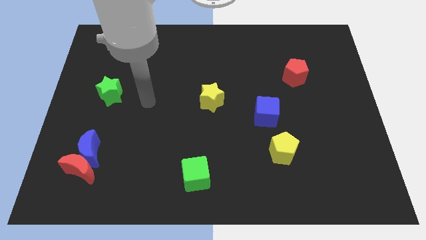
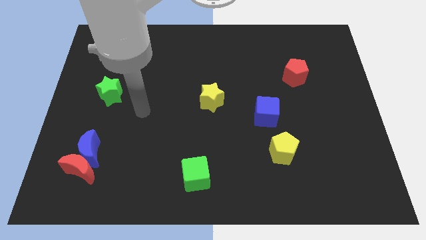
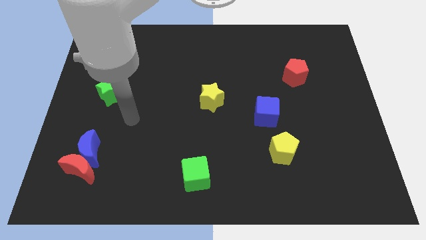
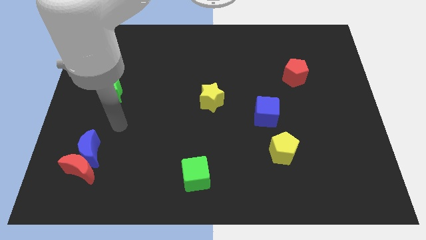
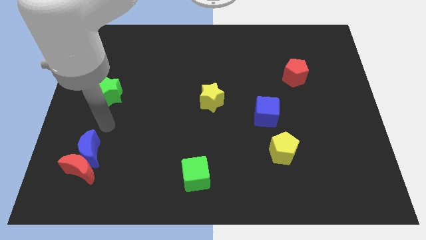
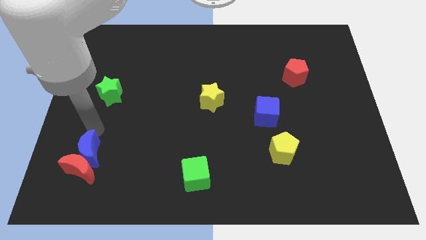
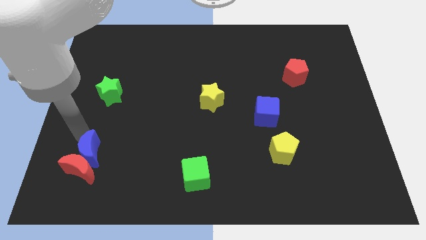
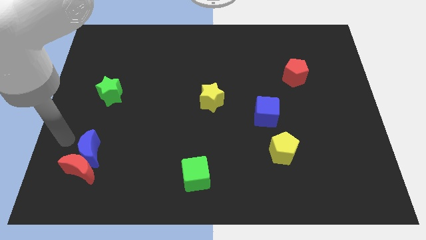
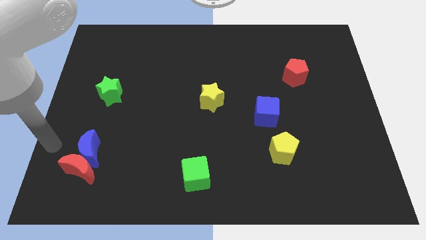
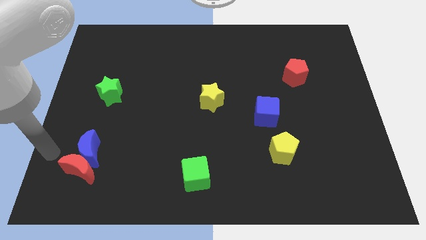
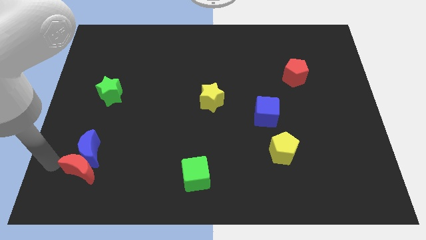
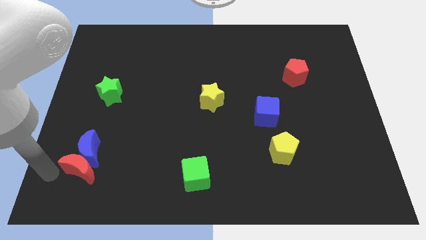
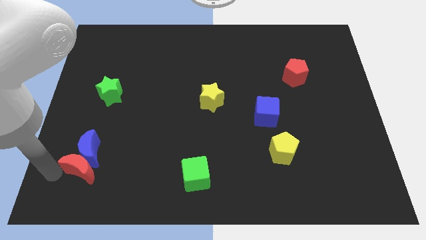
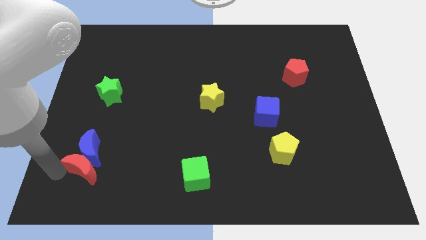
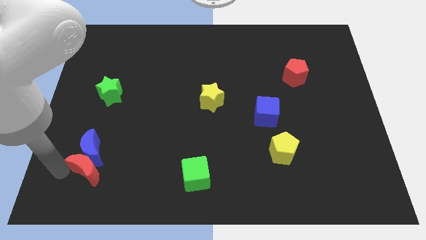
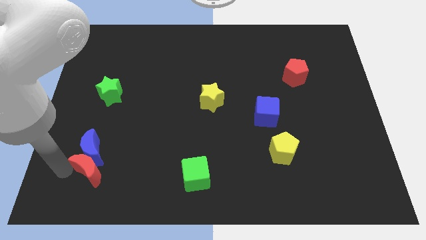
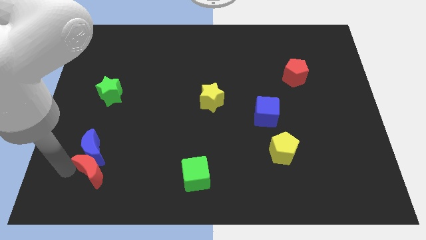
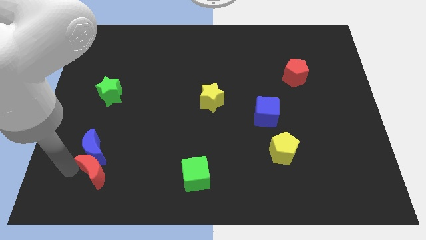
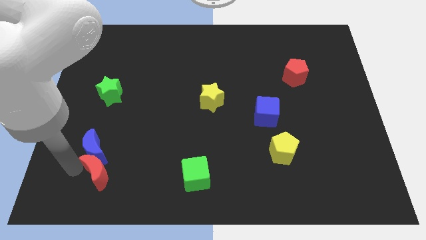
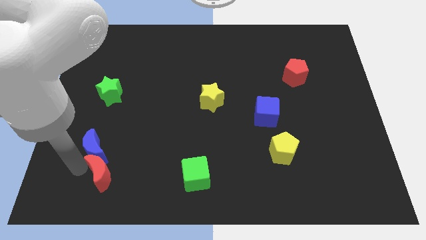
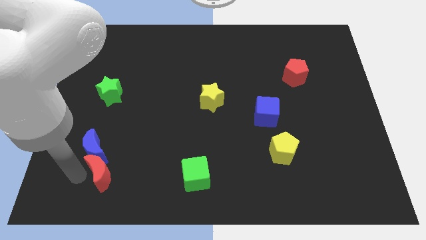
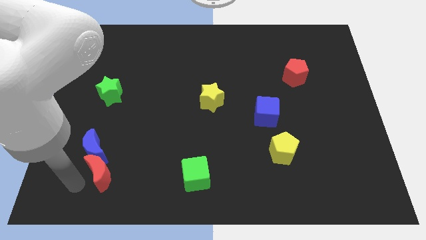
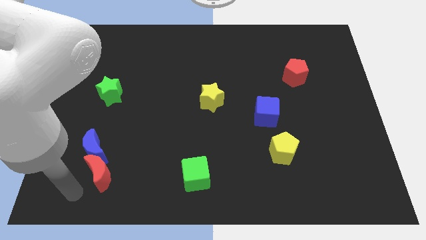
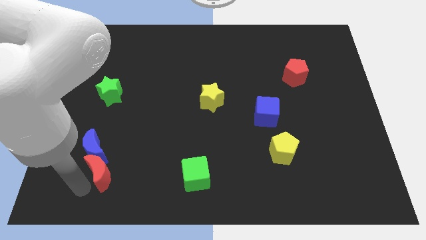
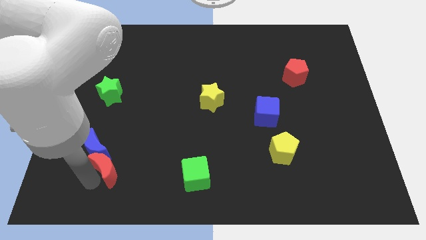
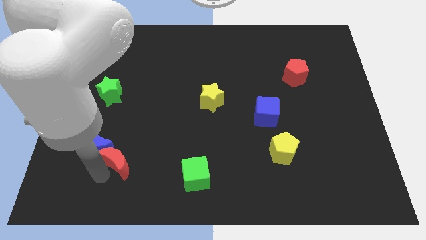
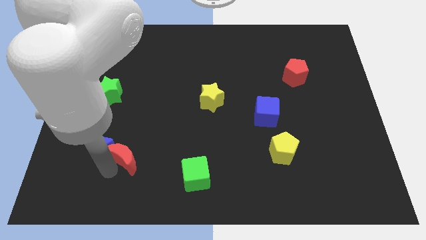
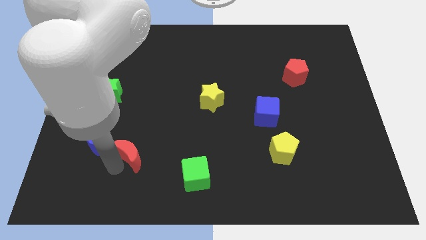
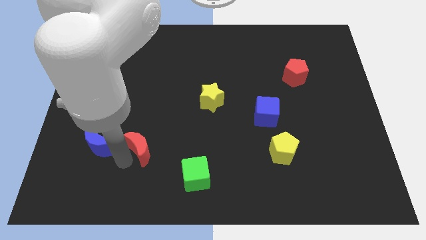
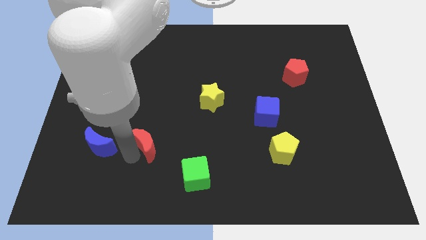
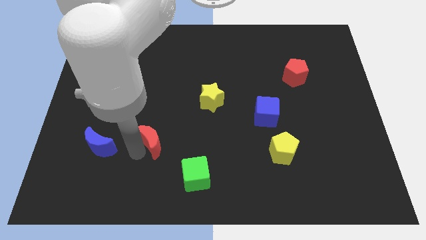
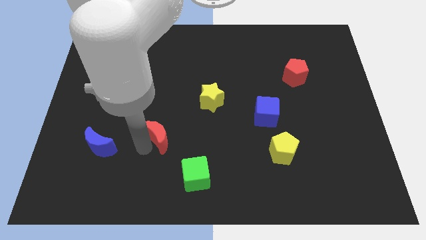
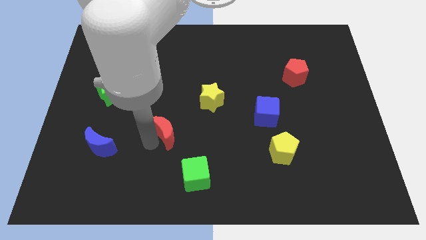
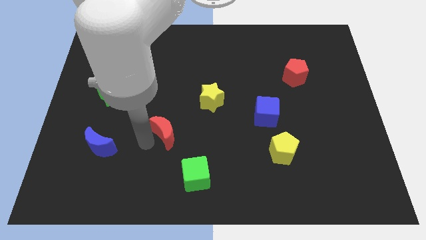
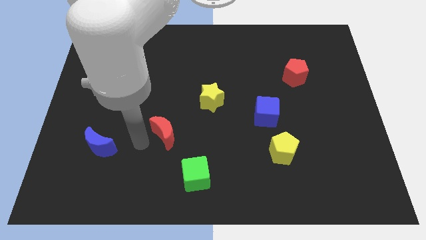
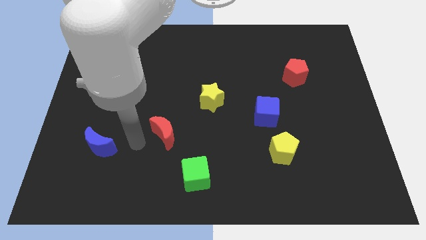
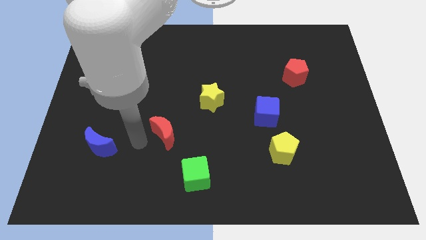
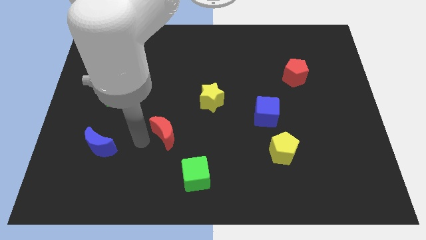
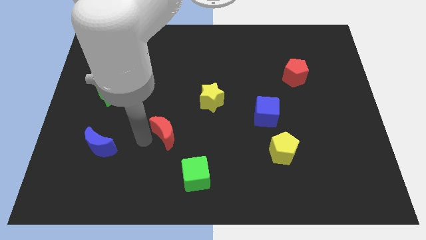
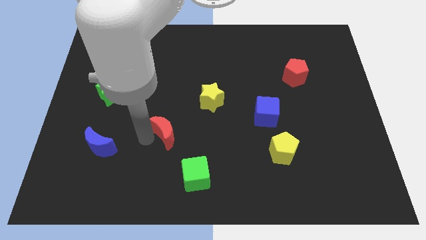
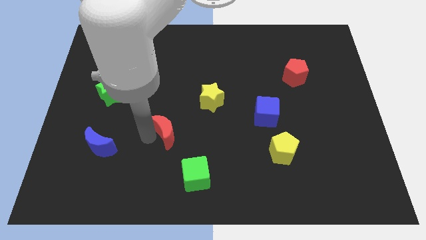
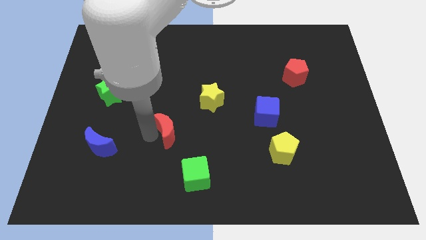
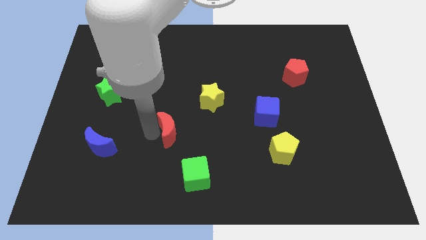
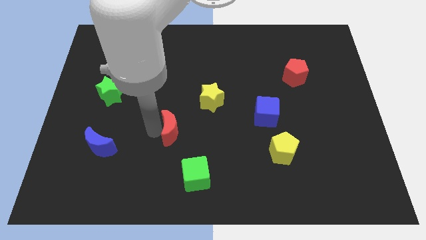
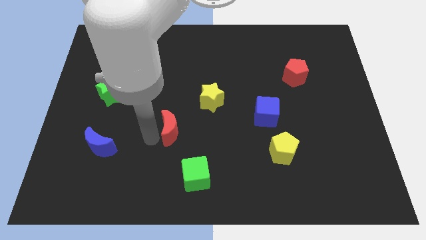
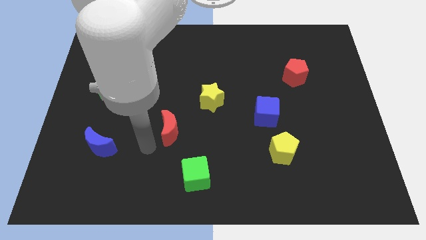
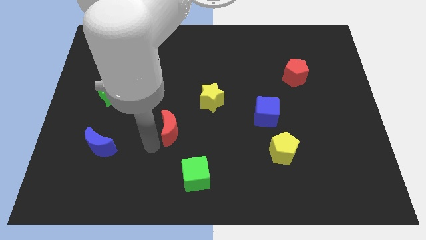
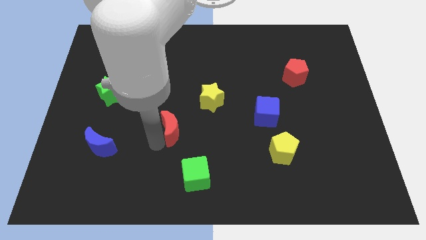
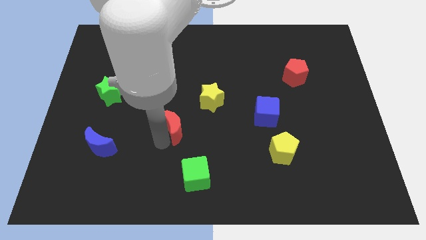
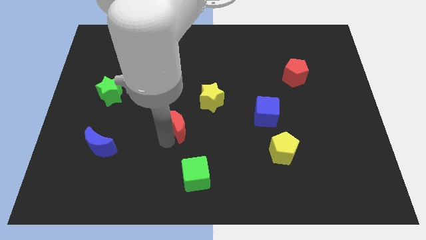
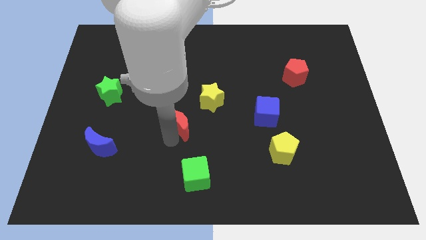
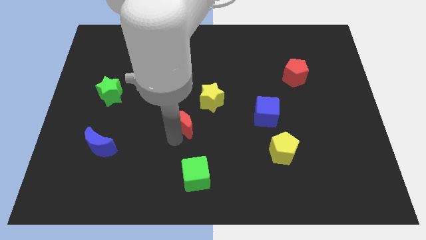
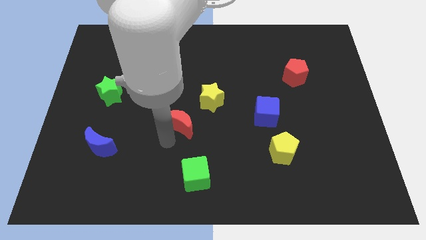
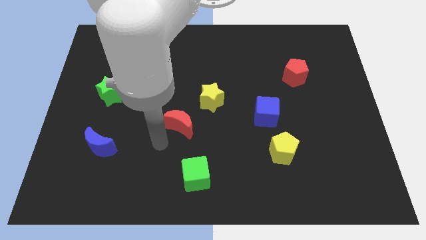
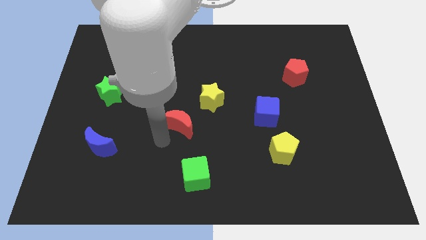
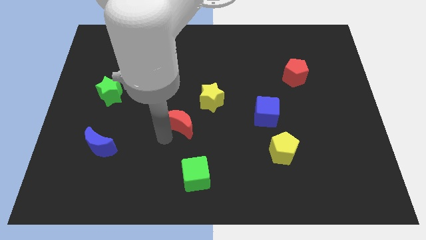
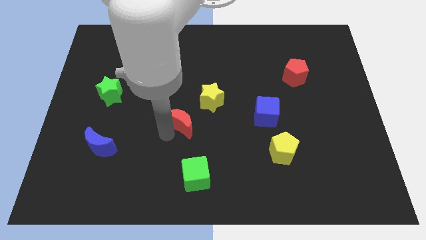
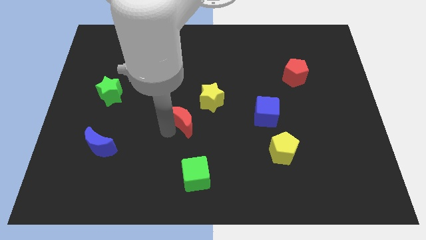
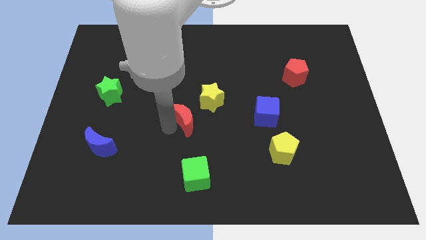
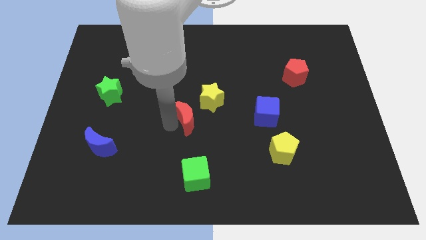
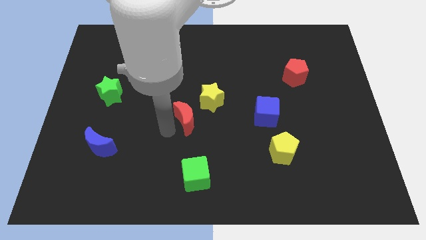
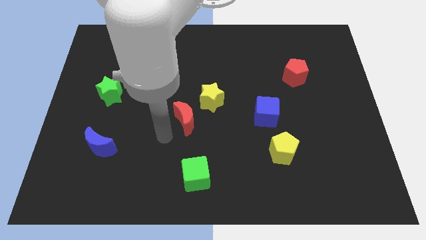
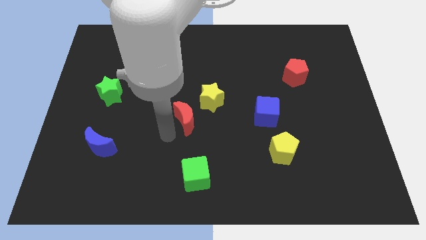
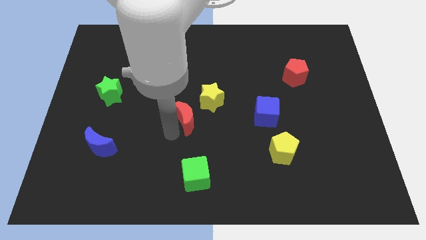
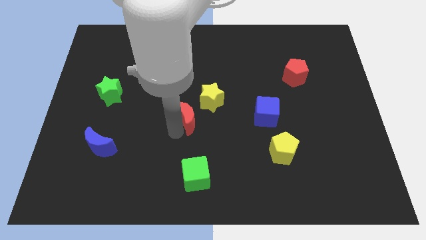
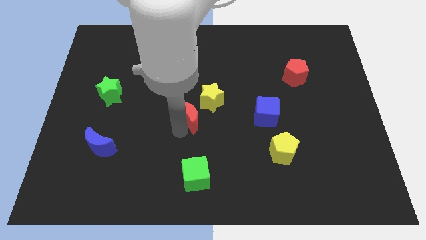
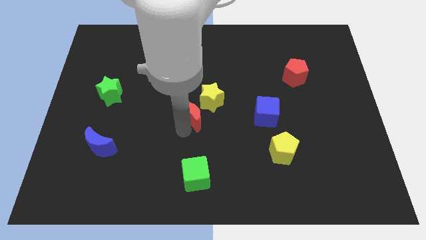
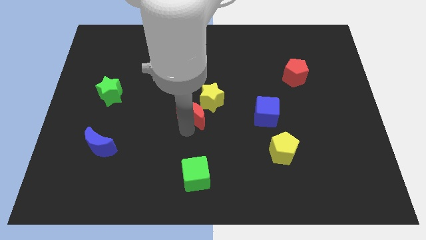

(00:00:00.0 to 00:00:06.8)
put the red moon close to the yellow star
